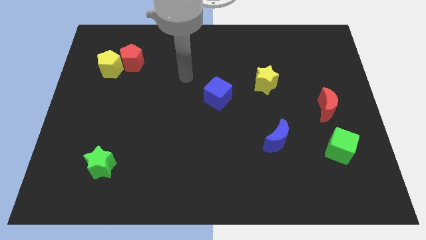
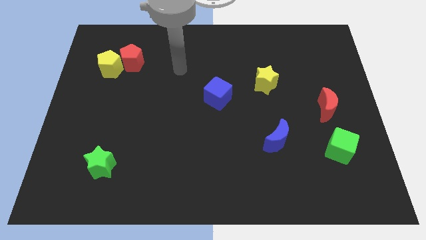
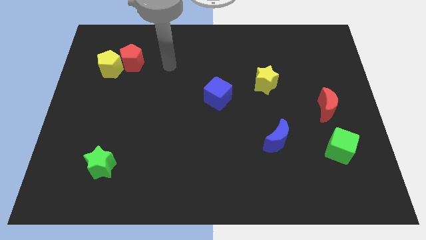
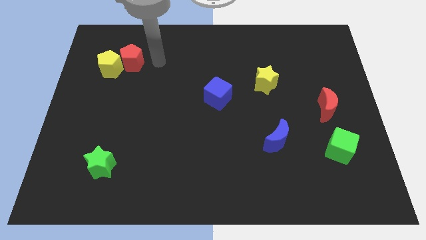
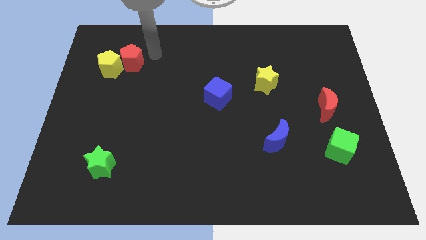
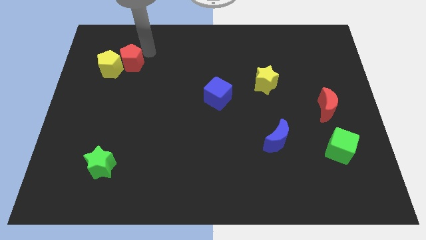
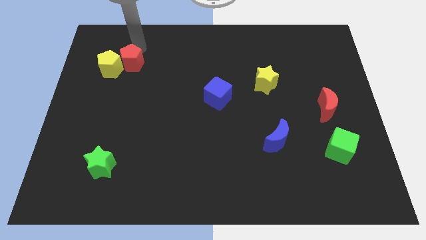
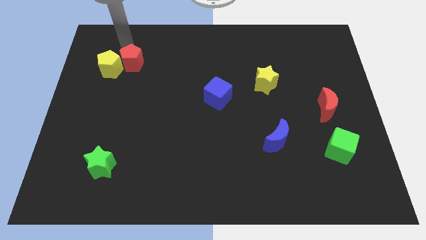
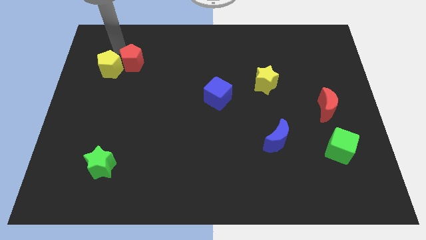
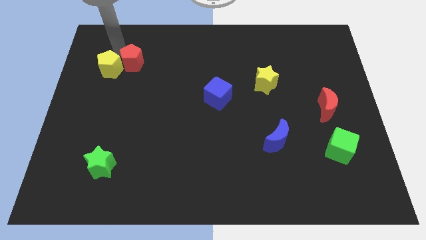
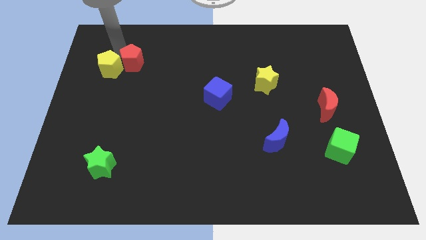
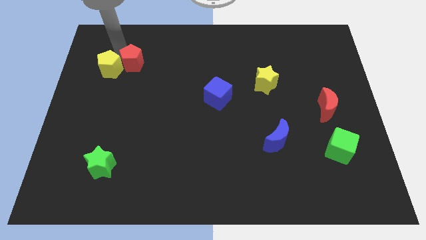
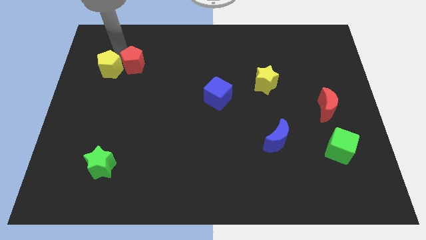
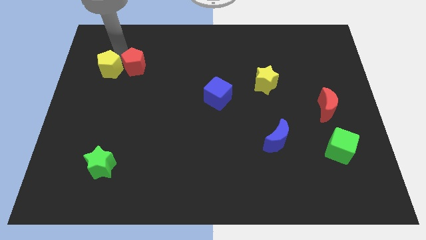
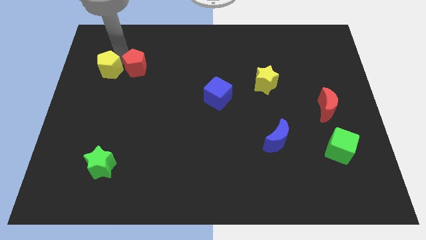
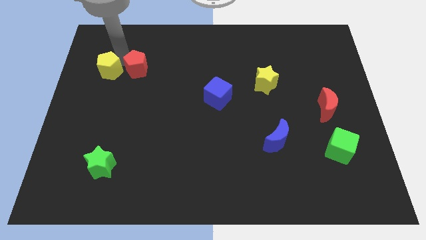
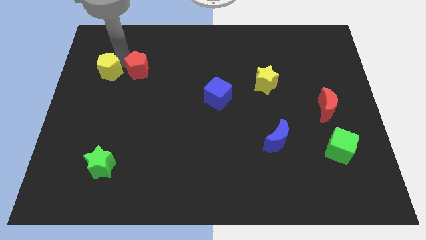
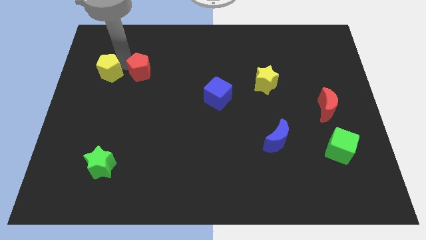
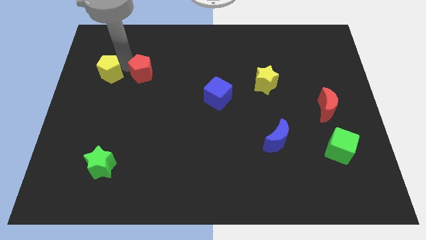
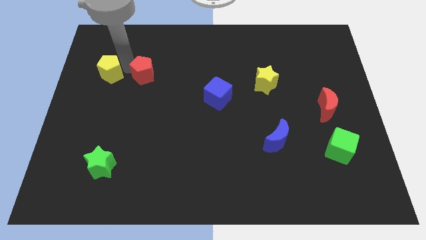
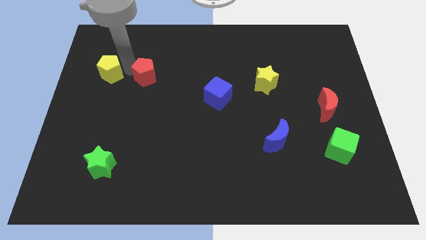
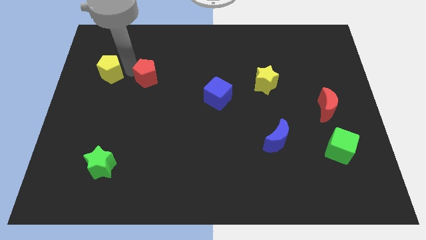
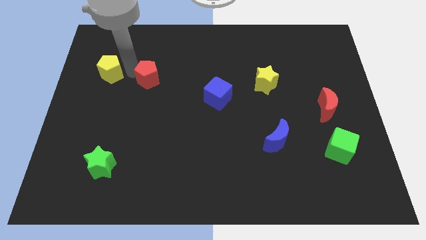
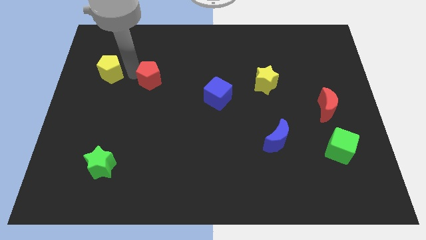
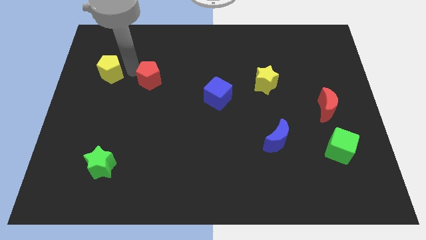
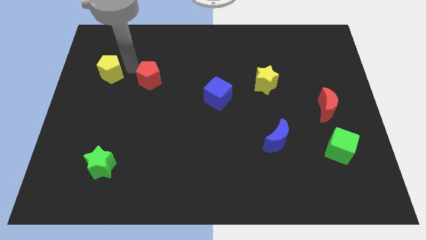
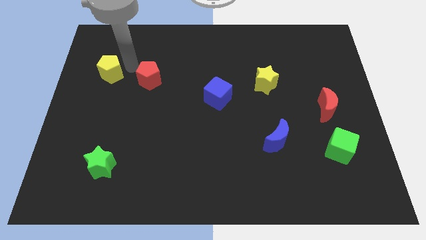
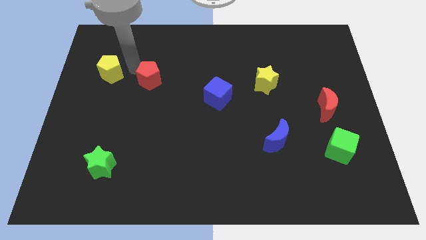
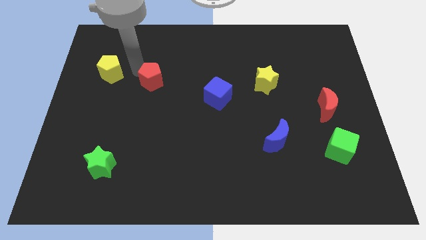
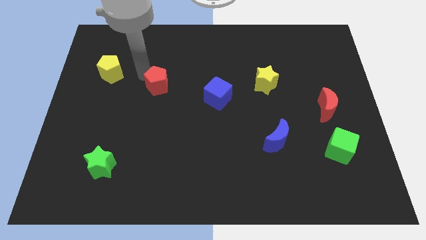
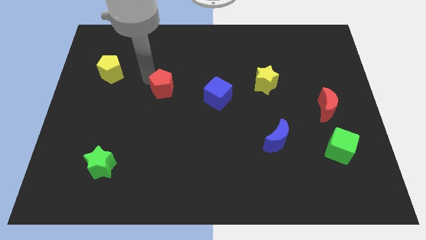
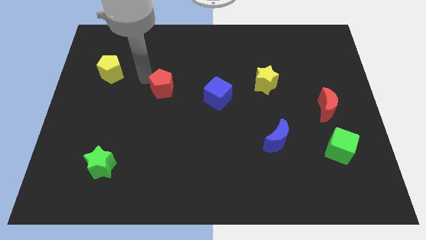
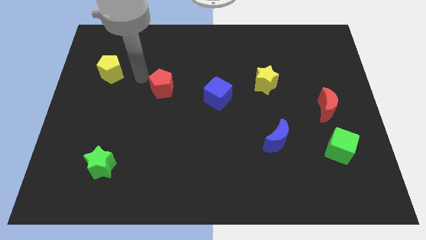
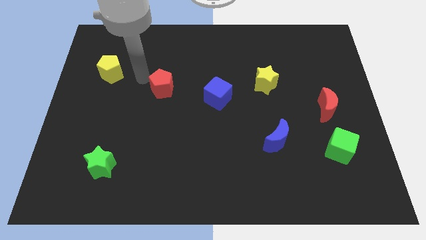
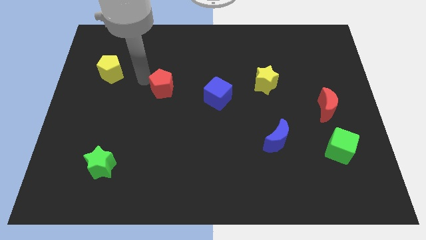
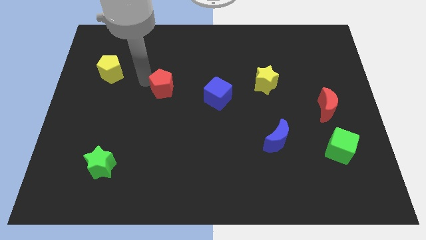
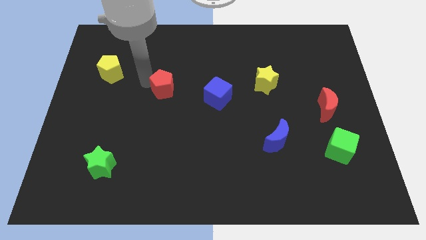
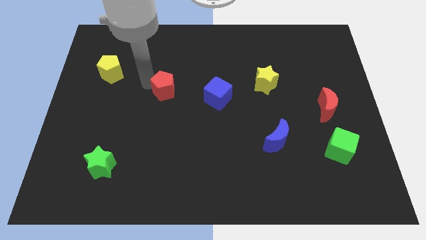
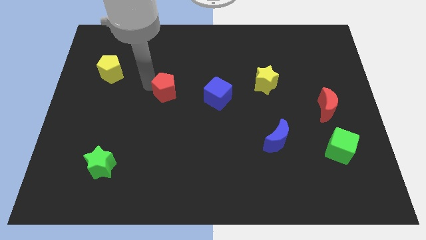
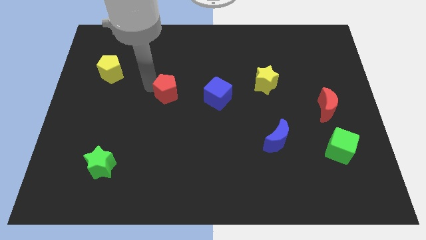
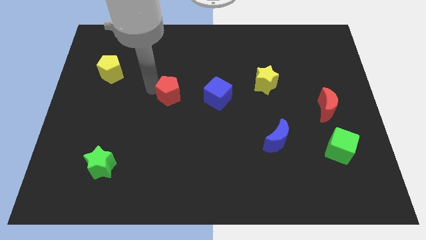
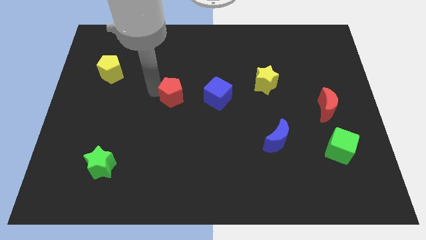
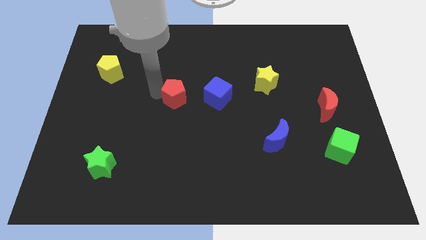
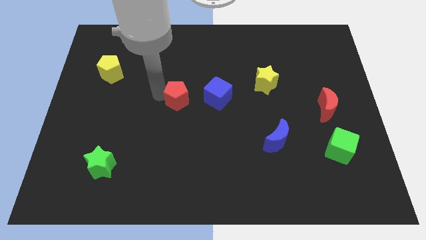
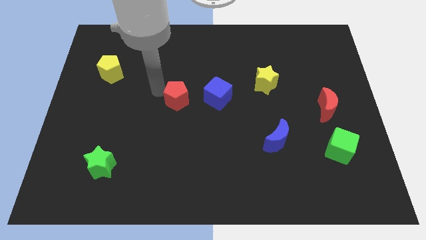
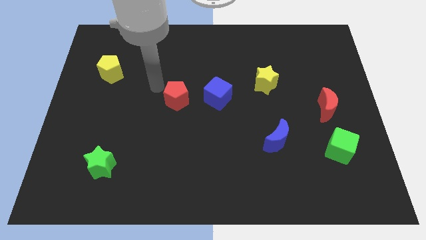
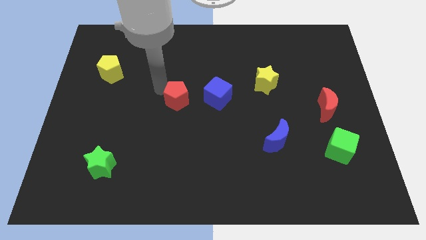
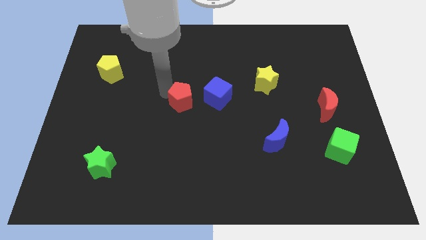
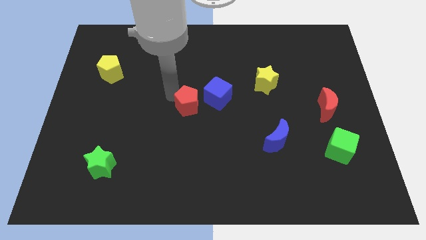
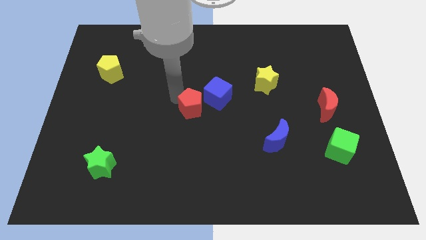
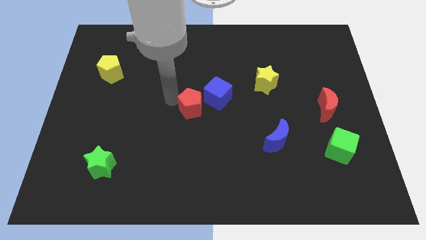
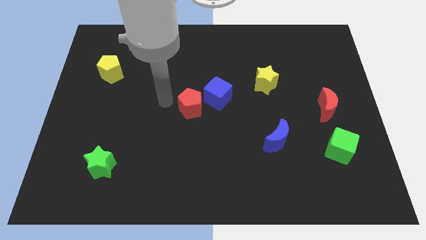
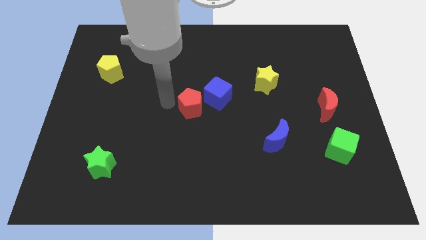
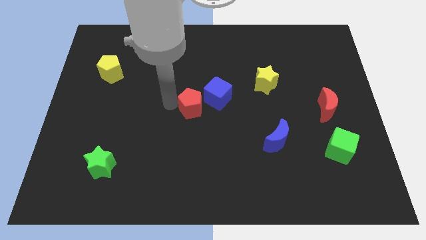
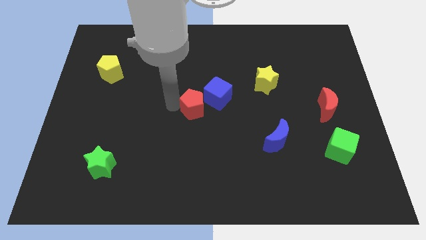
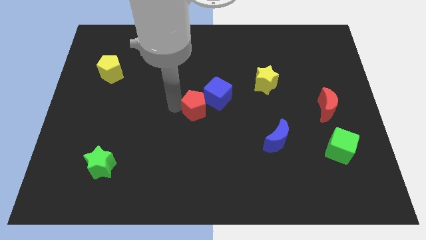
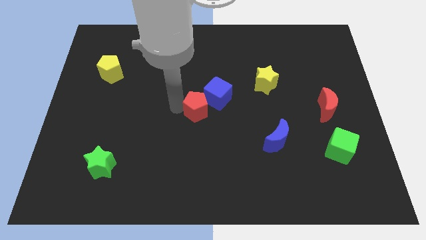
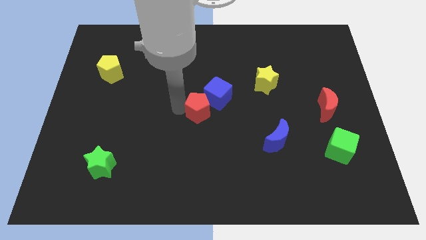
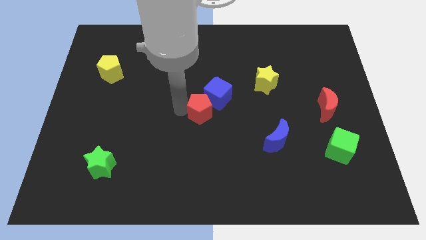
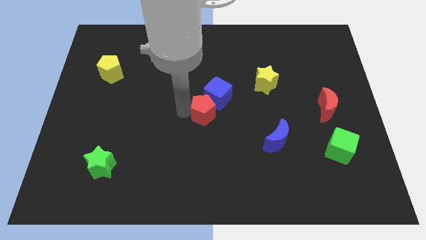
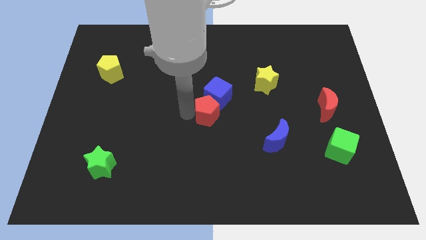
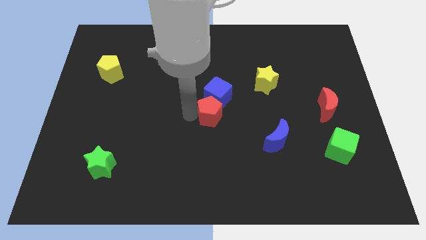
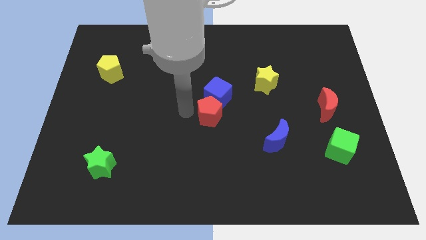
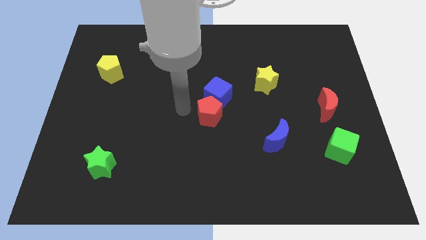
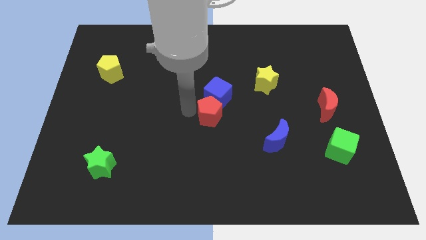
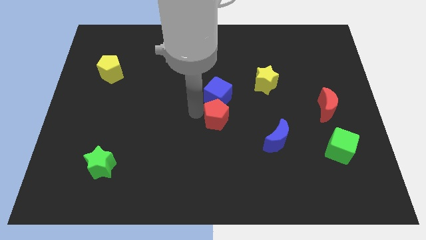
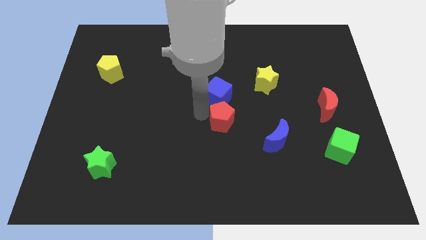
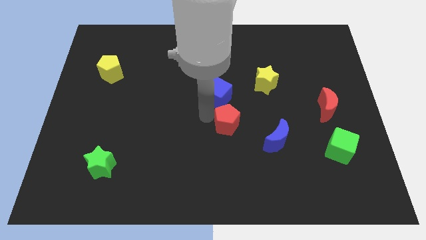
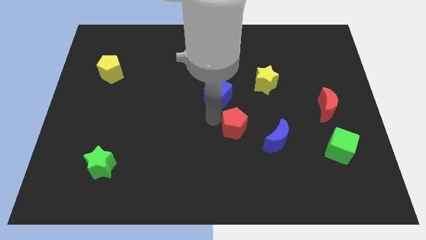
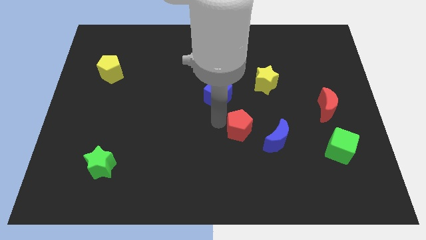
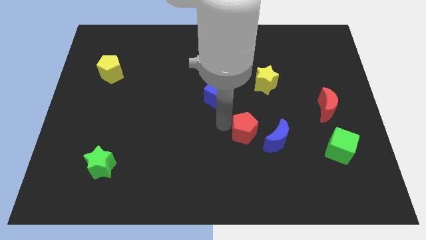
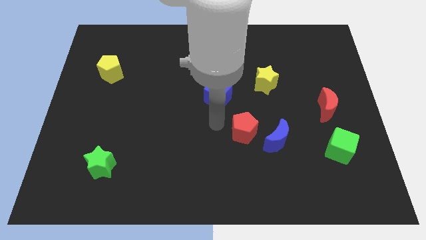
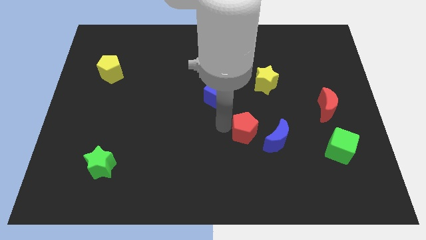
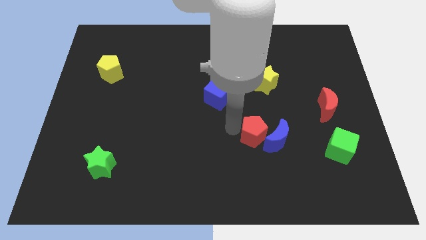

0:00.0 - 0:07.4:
slide the red pentagon close to the blue moon
